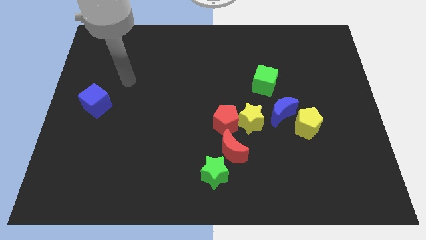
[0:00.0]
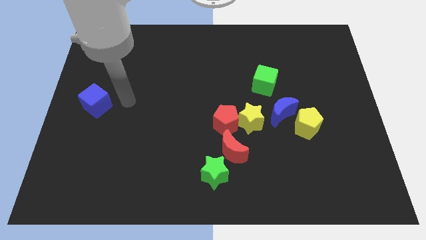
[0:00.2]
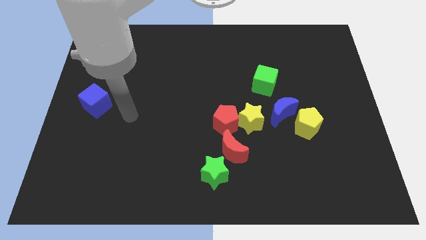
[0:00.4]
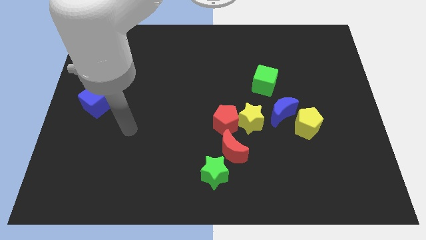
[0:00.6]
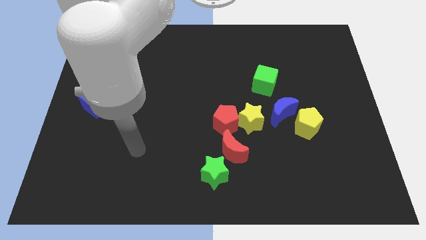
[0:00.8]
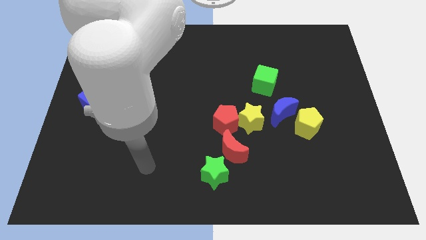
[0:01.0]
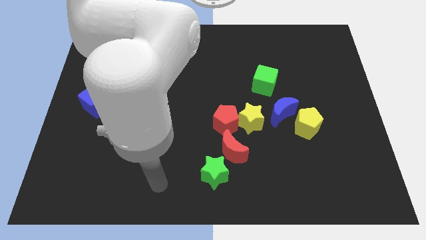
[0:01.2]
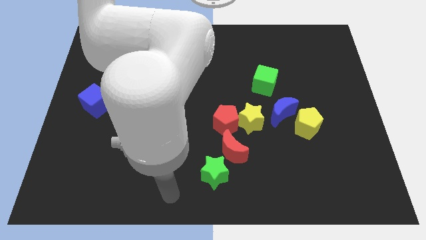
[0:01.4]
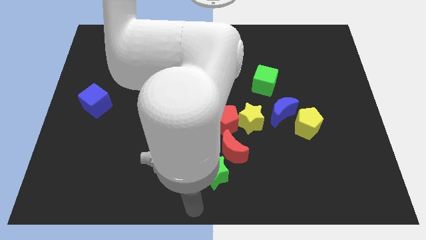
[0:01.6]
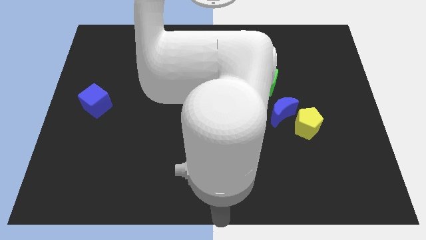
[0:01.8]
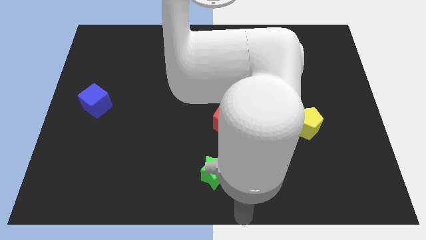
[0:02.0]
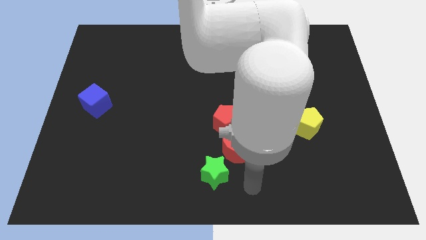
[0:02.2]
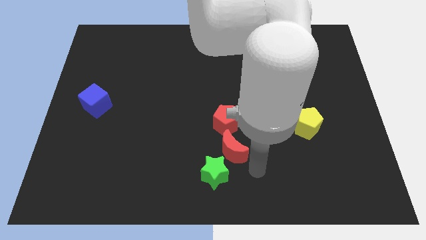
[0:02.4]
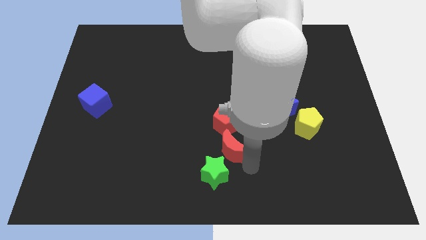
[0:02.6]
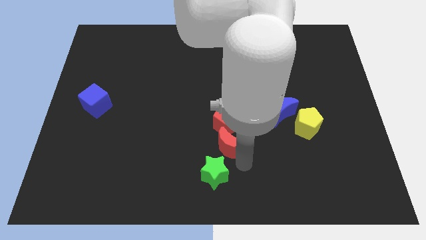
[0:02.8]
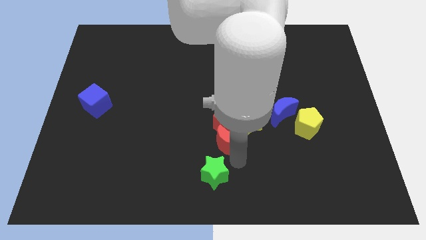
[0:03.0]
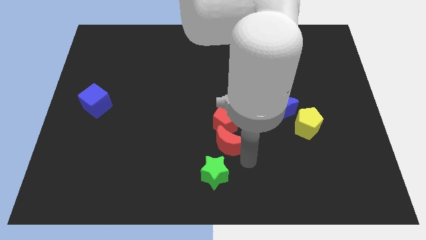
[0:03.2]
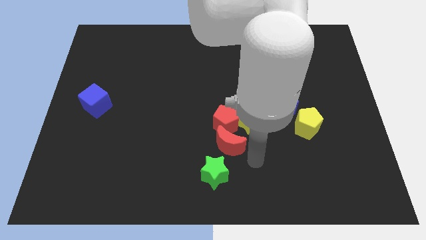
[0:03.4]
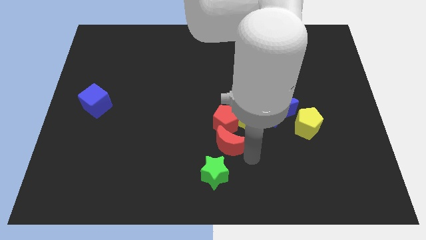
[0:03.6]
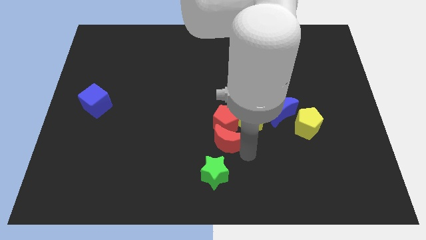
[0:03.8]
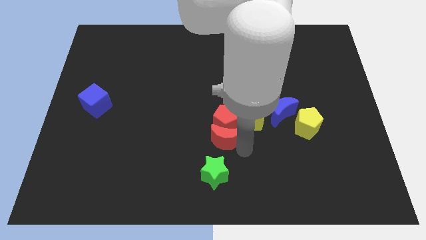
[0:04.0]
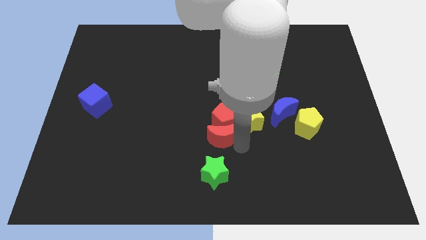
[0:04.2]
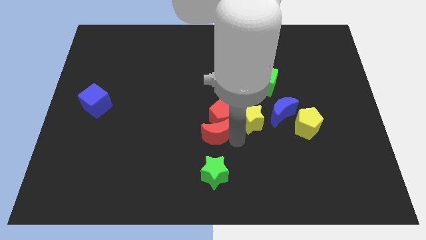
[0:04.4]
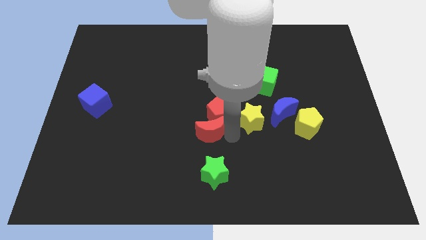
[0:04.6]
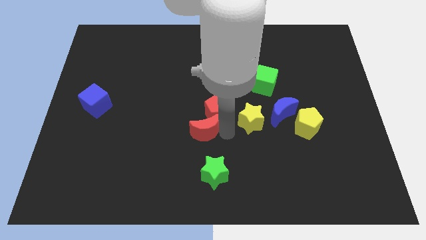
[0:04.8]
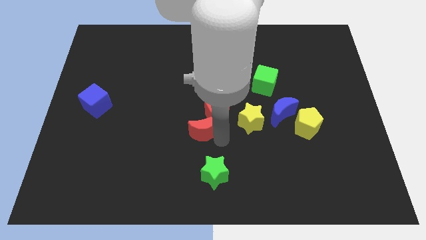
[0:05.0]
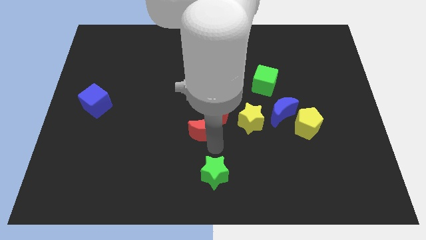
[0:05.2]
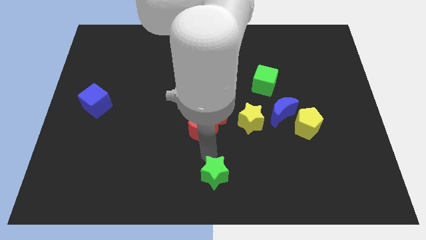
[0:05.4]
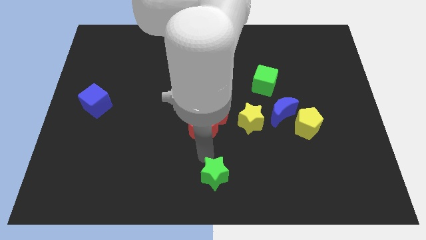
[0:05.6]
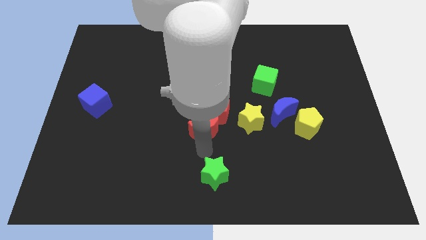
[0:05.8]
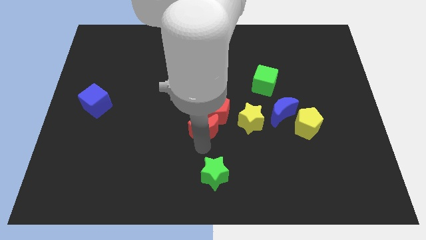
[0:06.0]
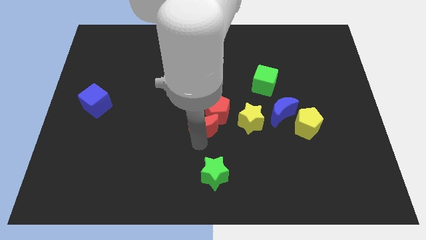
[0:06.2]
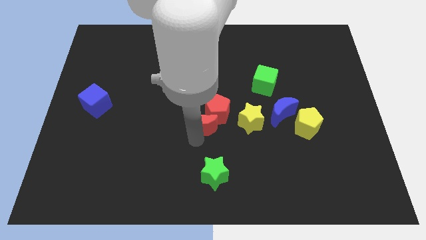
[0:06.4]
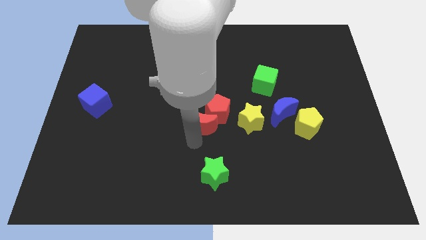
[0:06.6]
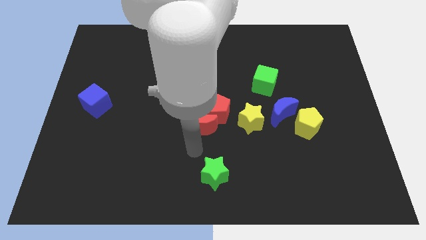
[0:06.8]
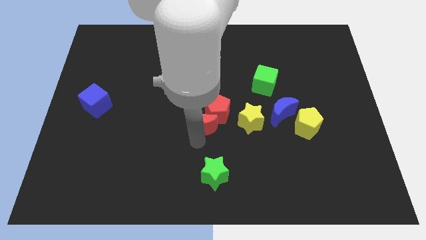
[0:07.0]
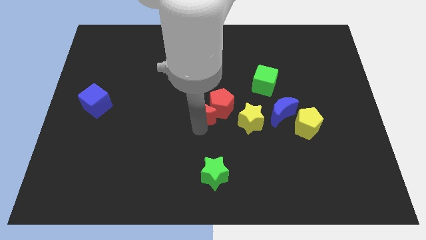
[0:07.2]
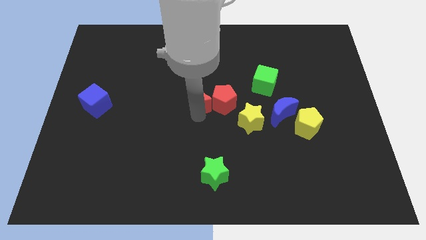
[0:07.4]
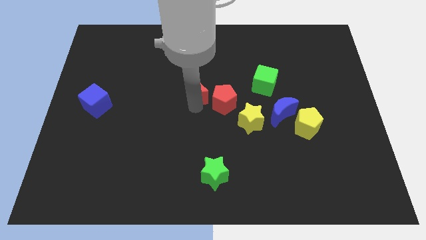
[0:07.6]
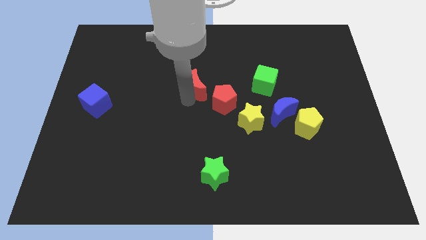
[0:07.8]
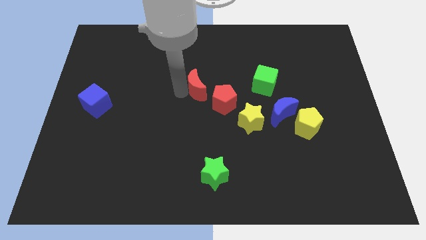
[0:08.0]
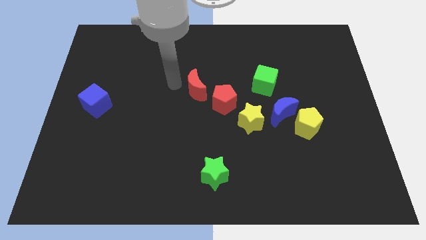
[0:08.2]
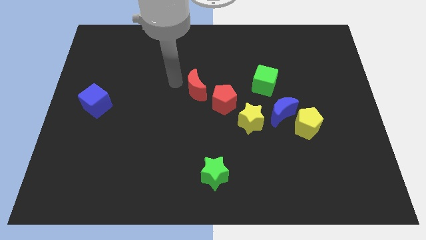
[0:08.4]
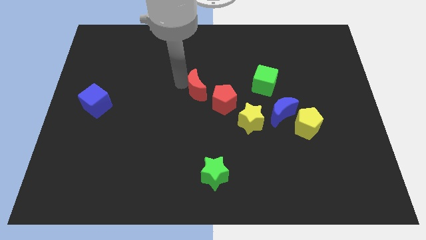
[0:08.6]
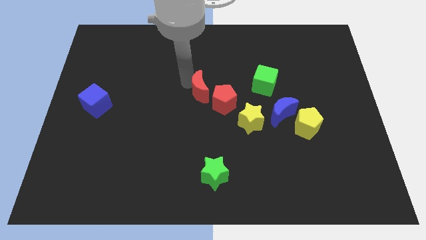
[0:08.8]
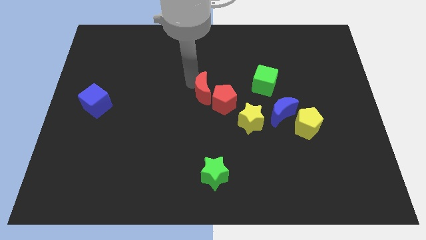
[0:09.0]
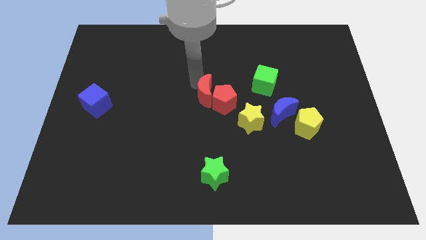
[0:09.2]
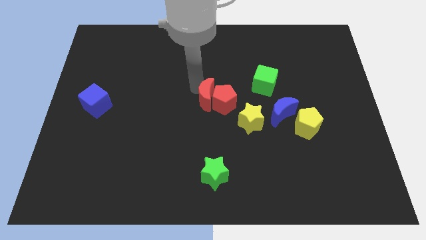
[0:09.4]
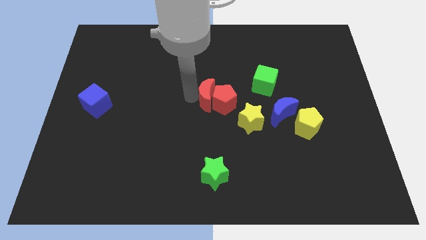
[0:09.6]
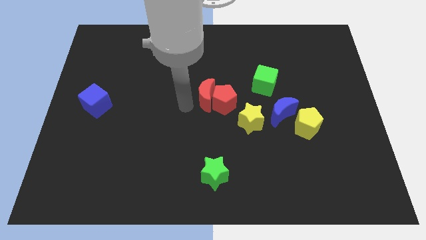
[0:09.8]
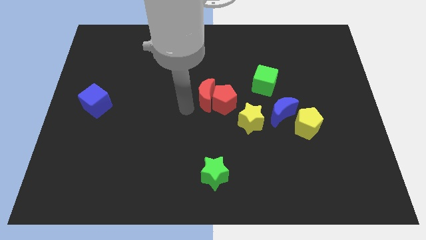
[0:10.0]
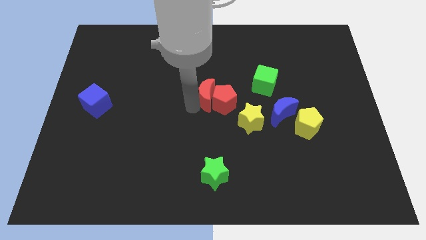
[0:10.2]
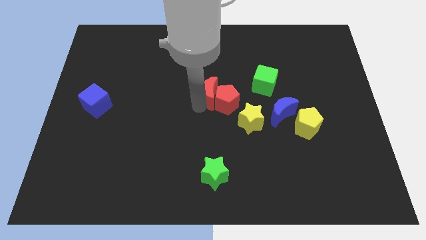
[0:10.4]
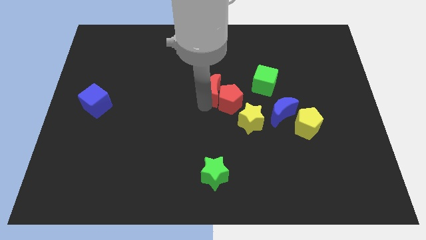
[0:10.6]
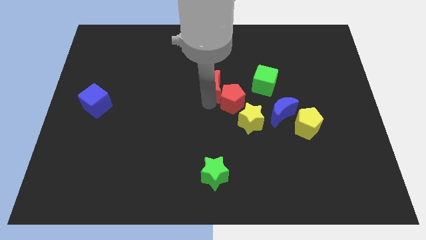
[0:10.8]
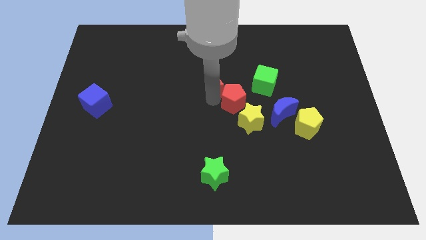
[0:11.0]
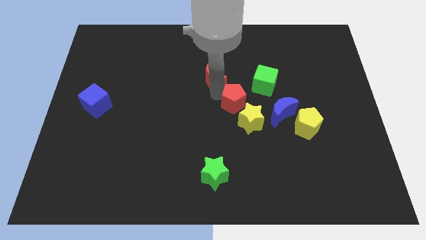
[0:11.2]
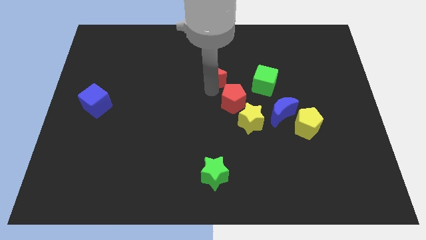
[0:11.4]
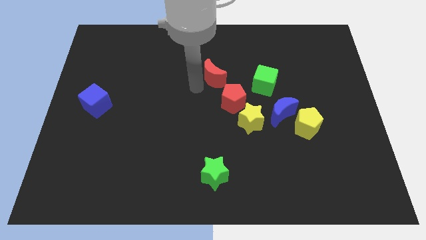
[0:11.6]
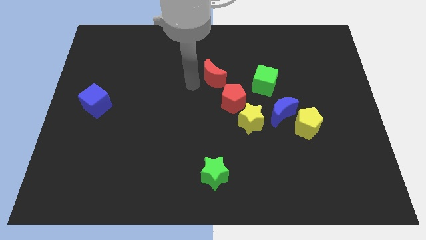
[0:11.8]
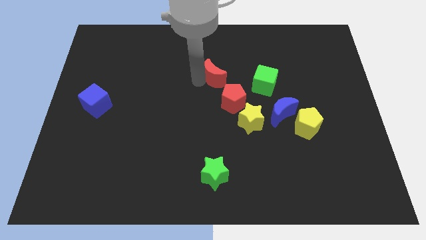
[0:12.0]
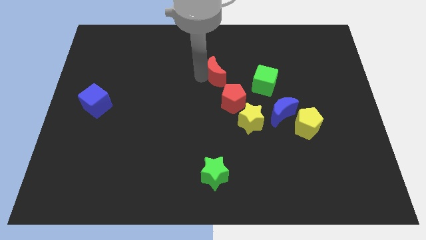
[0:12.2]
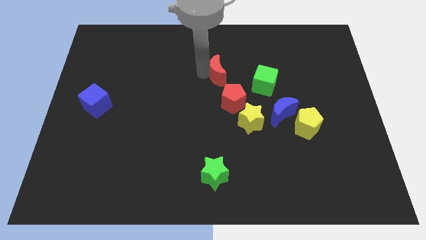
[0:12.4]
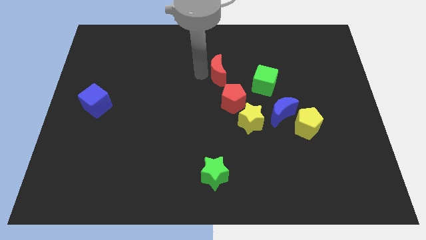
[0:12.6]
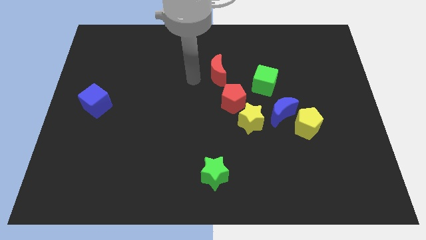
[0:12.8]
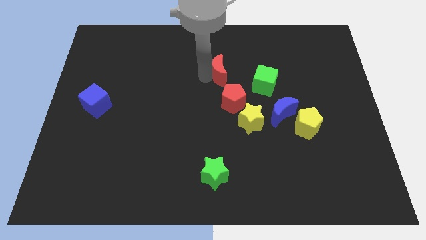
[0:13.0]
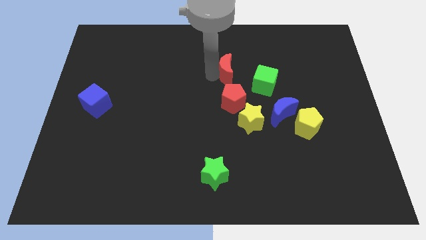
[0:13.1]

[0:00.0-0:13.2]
put the red moon to the top left side of the green cube

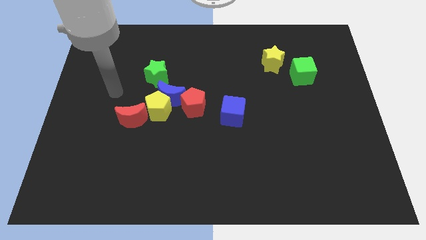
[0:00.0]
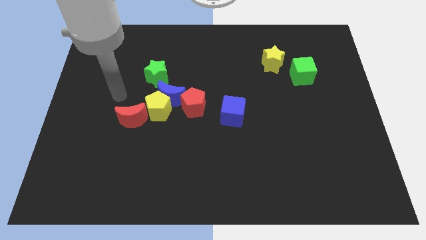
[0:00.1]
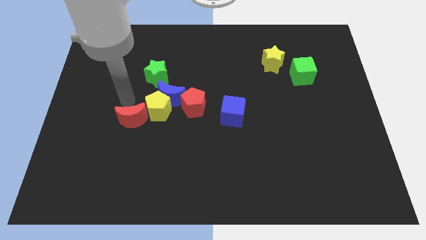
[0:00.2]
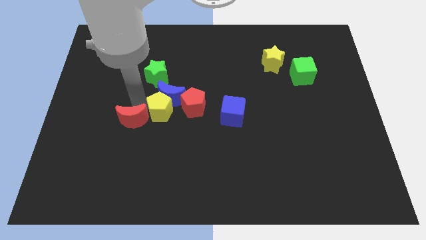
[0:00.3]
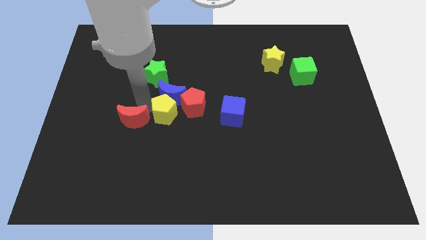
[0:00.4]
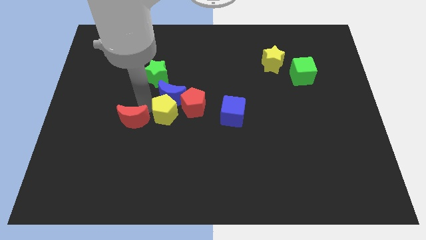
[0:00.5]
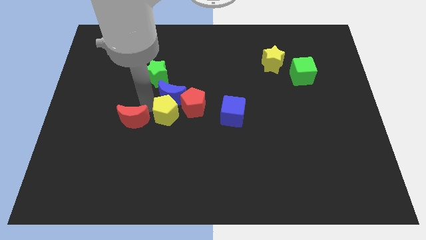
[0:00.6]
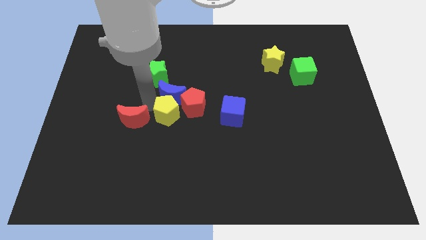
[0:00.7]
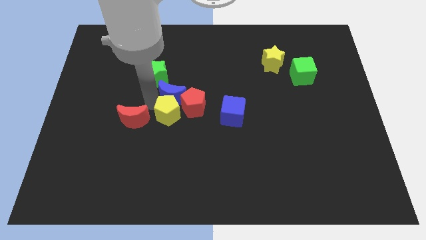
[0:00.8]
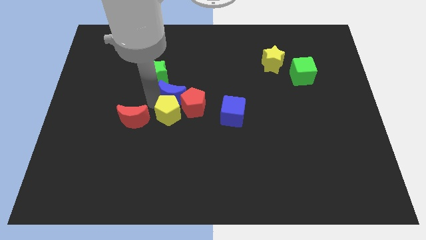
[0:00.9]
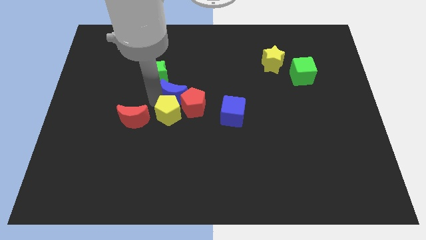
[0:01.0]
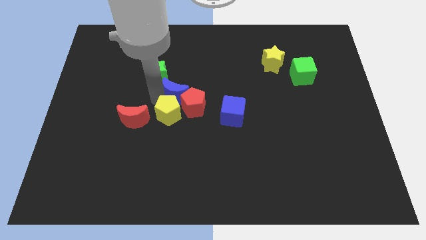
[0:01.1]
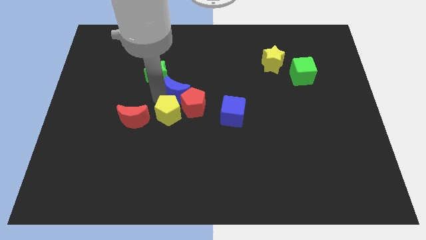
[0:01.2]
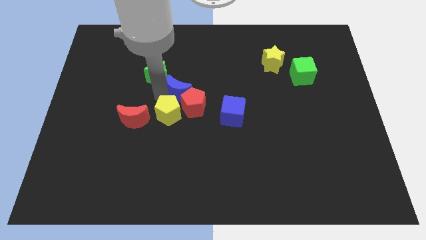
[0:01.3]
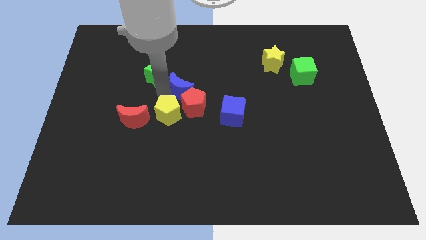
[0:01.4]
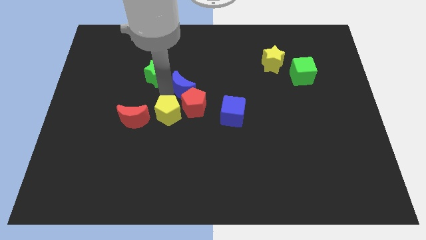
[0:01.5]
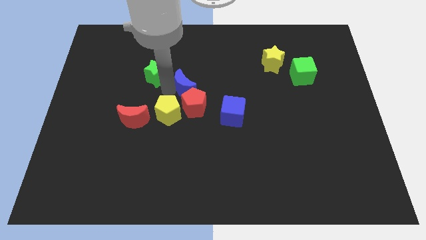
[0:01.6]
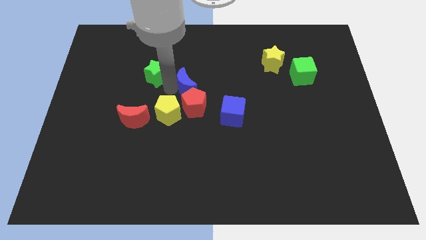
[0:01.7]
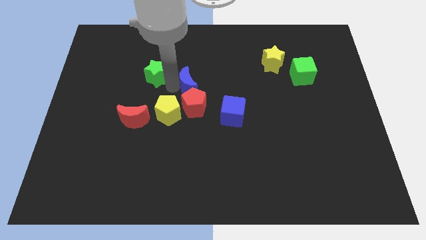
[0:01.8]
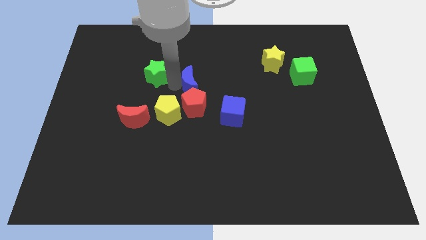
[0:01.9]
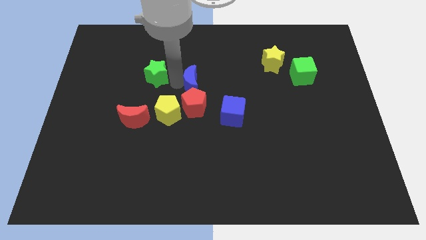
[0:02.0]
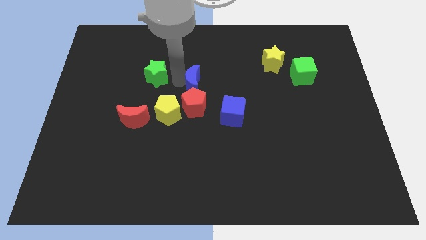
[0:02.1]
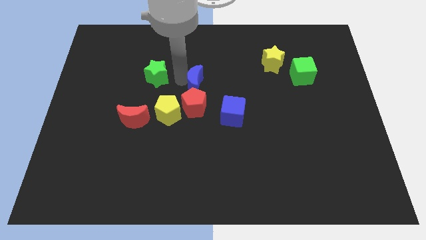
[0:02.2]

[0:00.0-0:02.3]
push the blue moon to the top left side of the blue cube
